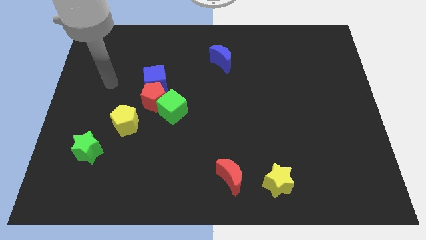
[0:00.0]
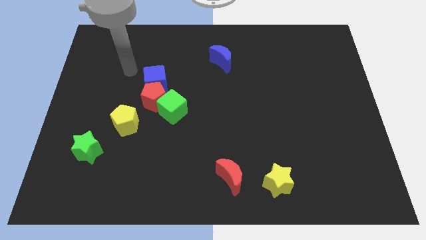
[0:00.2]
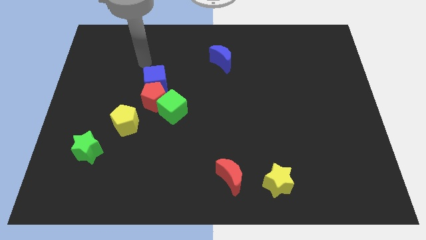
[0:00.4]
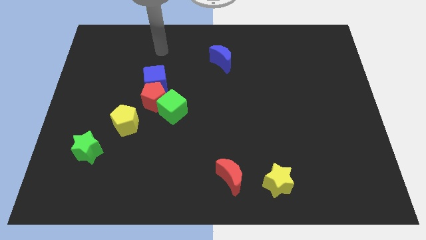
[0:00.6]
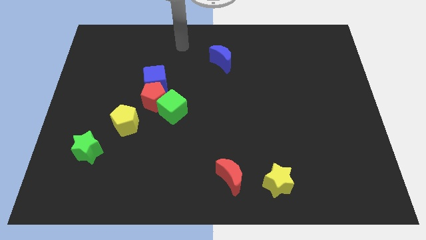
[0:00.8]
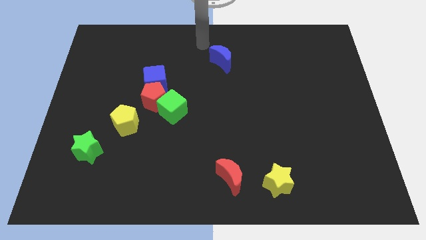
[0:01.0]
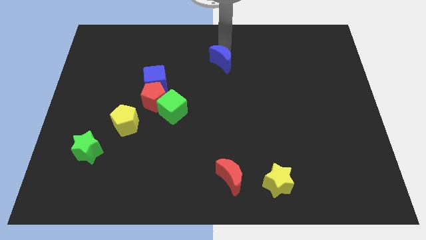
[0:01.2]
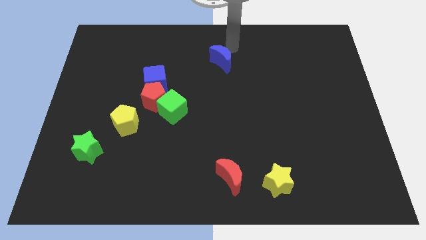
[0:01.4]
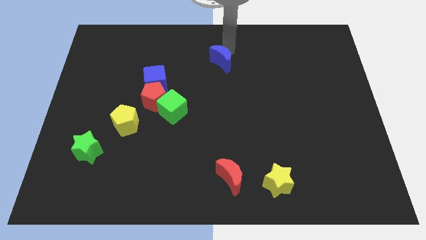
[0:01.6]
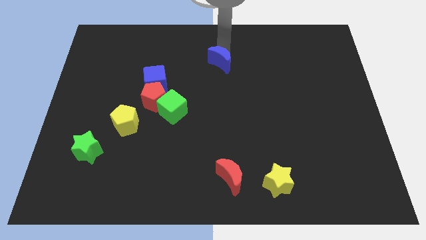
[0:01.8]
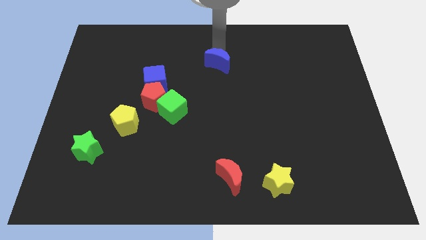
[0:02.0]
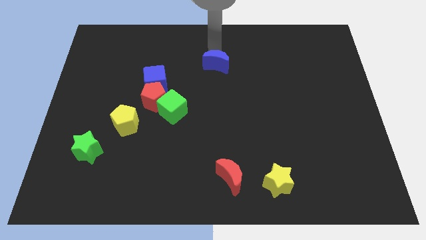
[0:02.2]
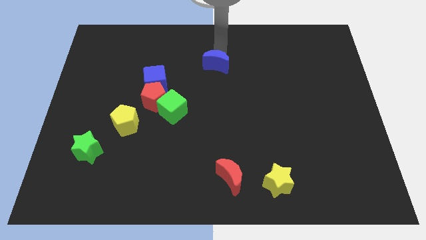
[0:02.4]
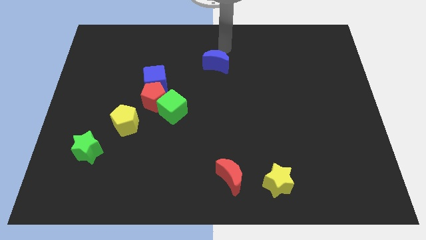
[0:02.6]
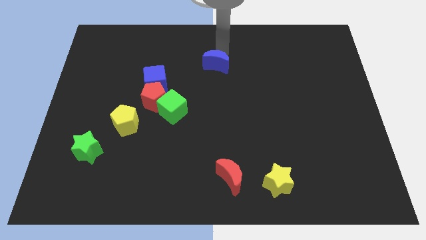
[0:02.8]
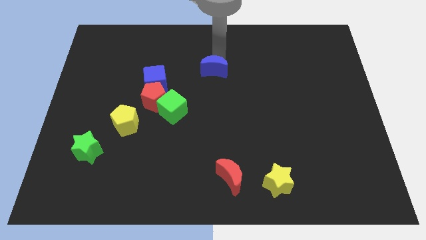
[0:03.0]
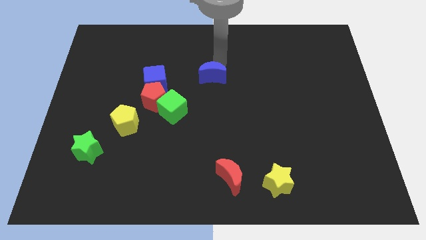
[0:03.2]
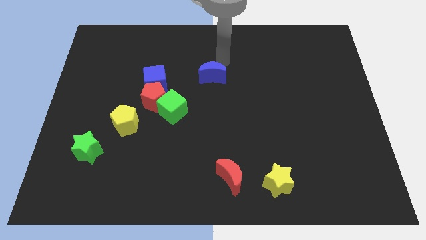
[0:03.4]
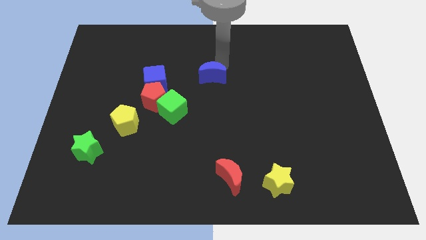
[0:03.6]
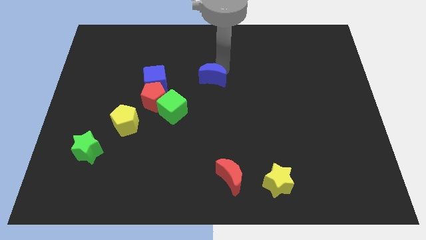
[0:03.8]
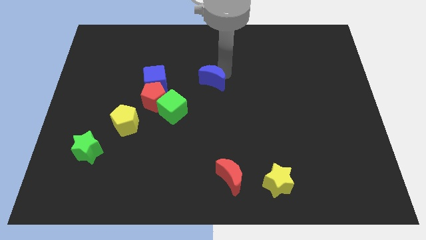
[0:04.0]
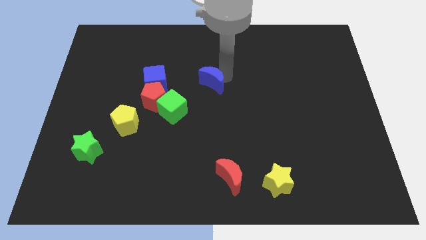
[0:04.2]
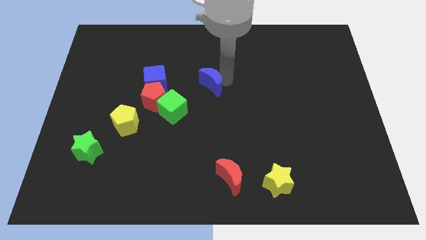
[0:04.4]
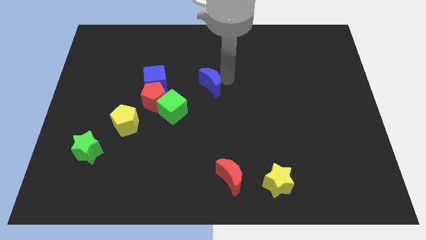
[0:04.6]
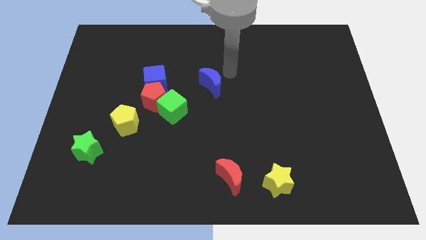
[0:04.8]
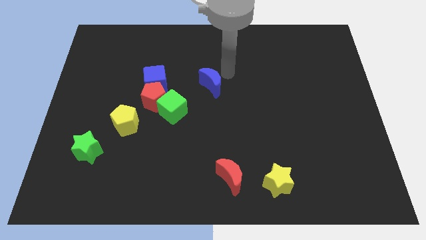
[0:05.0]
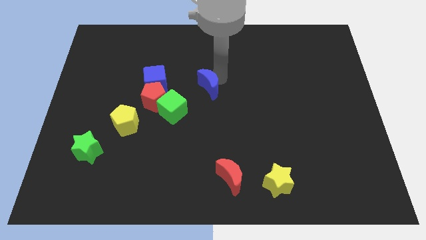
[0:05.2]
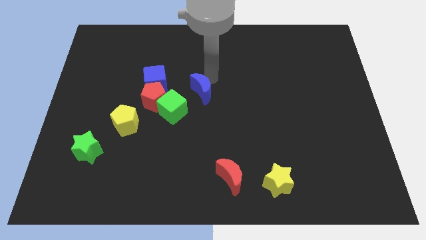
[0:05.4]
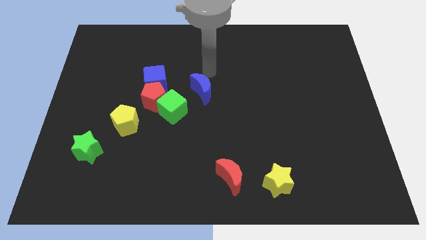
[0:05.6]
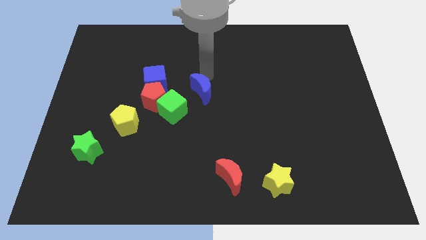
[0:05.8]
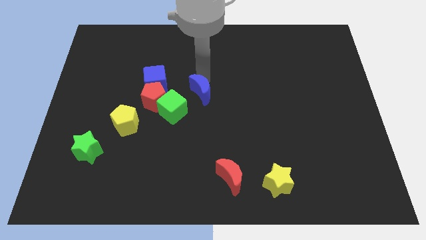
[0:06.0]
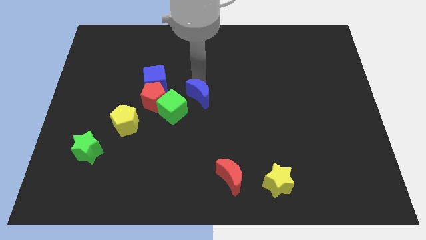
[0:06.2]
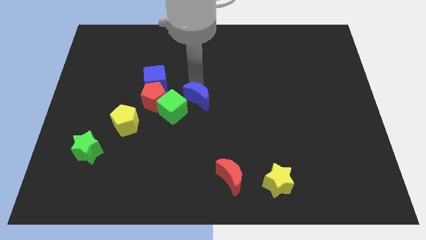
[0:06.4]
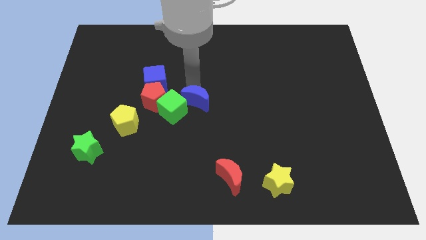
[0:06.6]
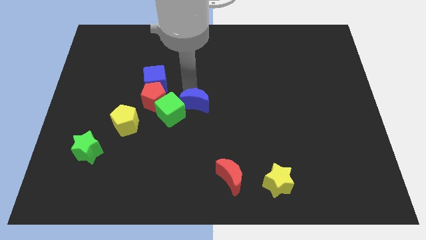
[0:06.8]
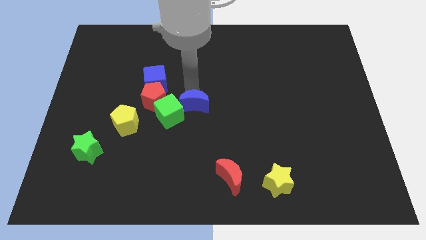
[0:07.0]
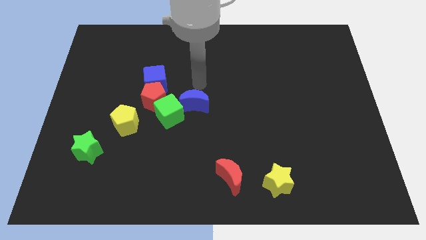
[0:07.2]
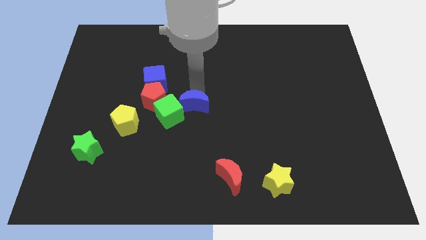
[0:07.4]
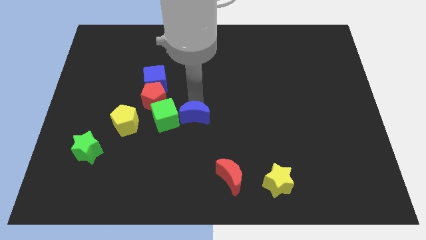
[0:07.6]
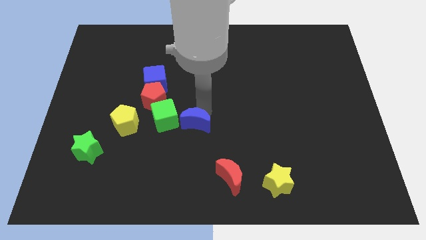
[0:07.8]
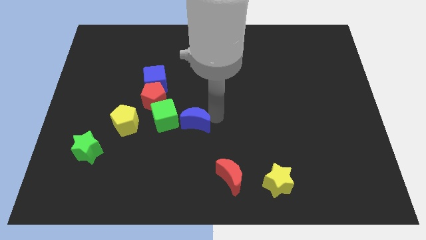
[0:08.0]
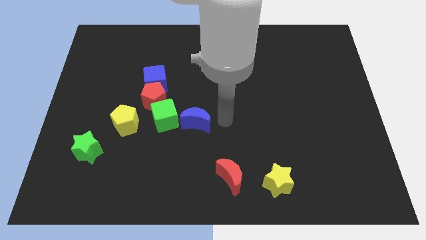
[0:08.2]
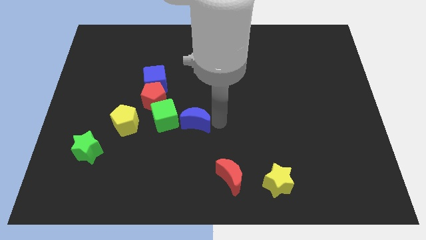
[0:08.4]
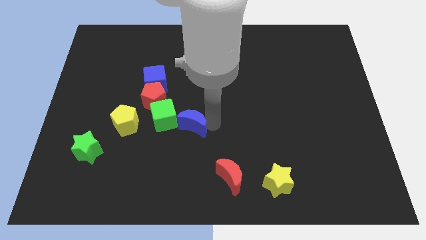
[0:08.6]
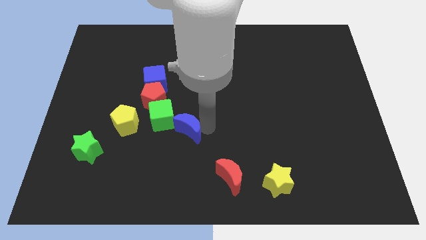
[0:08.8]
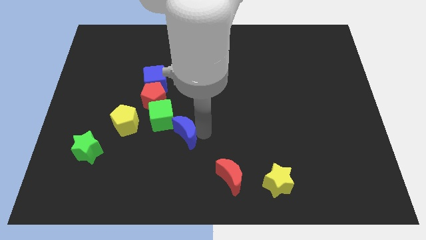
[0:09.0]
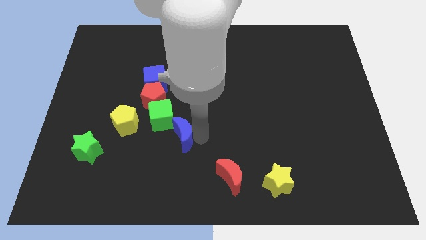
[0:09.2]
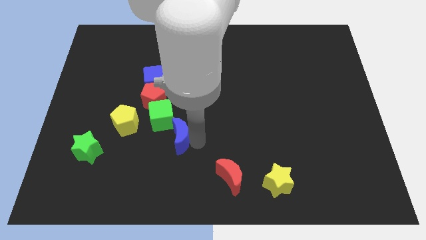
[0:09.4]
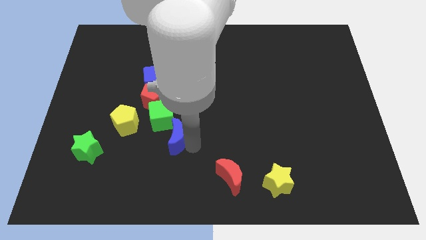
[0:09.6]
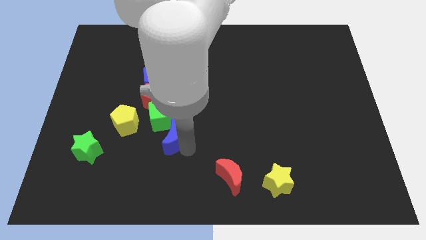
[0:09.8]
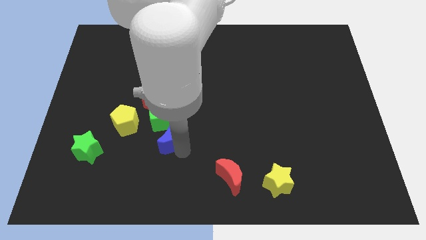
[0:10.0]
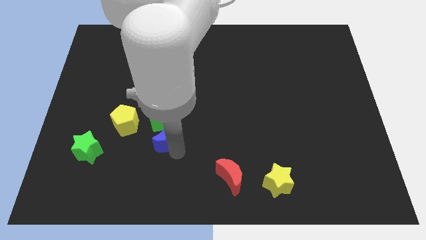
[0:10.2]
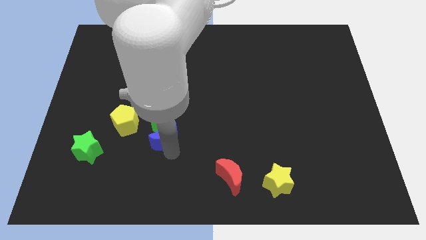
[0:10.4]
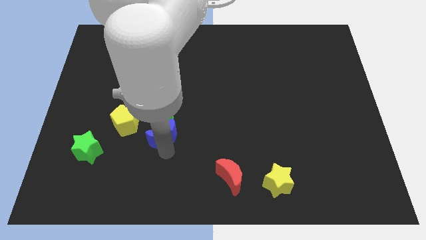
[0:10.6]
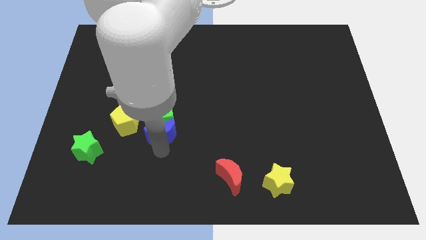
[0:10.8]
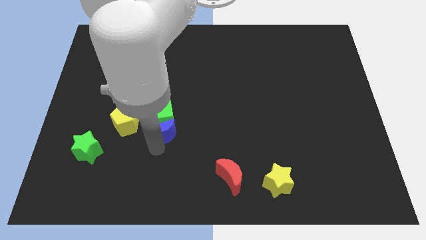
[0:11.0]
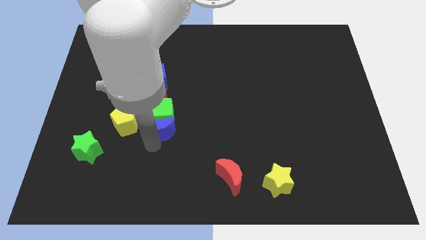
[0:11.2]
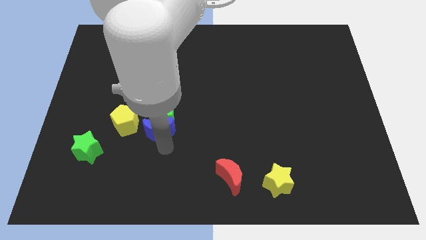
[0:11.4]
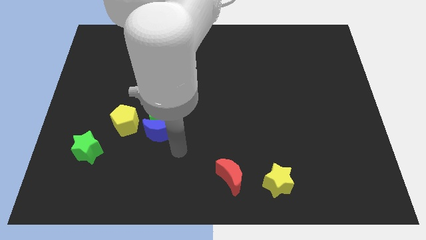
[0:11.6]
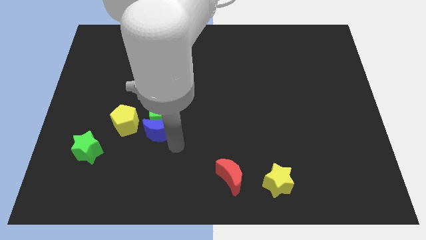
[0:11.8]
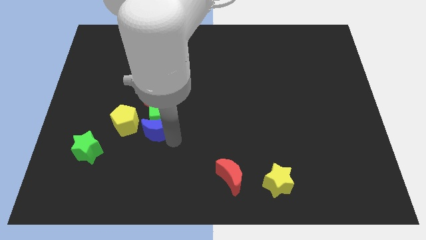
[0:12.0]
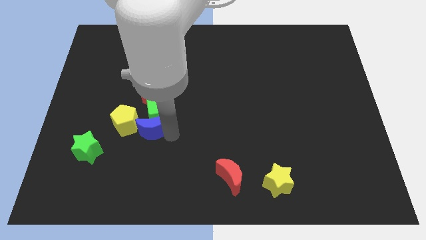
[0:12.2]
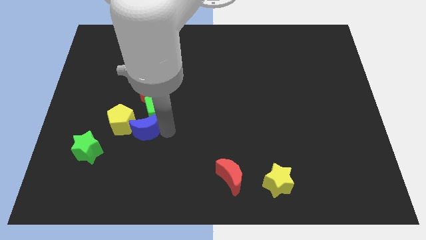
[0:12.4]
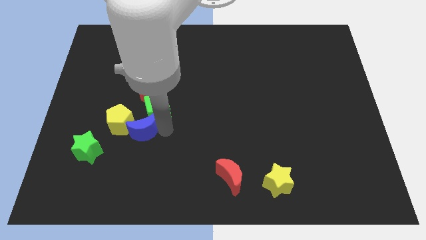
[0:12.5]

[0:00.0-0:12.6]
put the blue moon next to the yellow pentagon

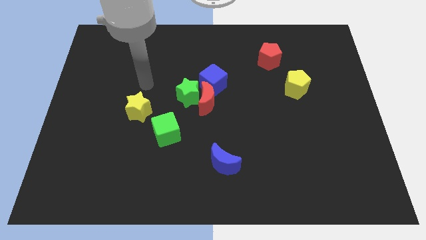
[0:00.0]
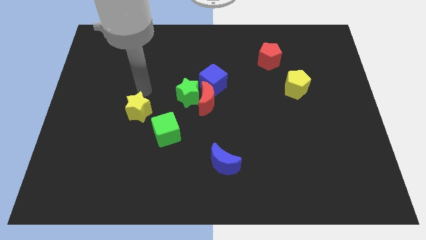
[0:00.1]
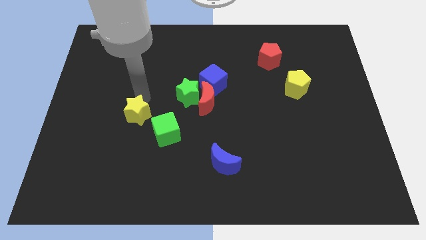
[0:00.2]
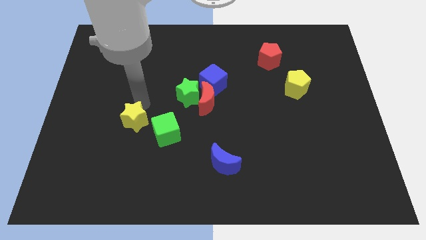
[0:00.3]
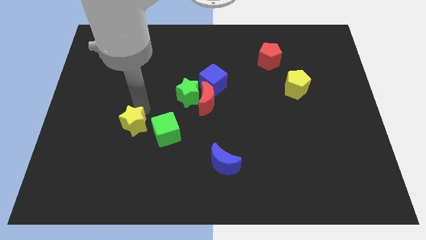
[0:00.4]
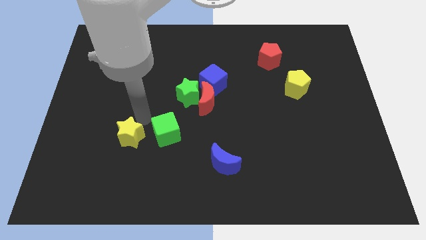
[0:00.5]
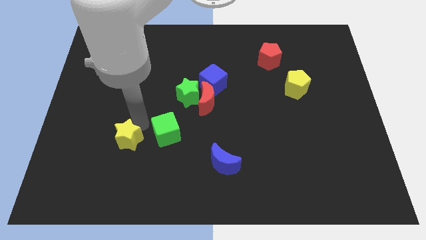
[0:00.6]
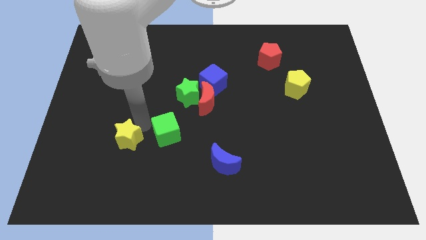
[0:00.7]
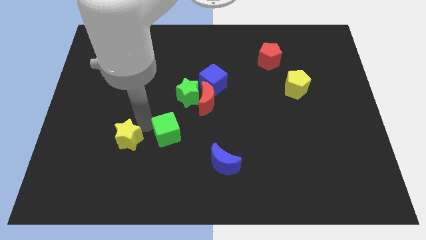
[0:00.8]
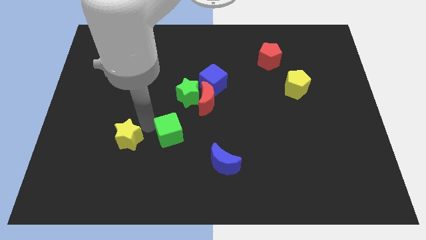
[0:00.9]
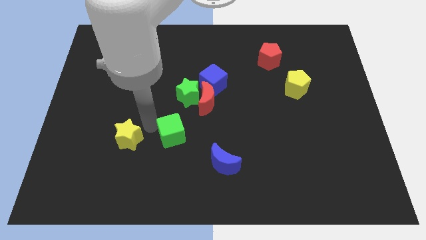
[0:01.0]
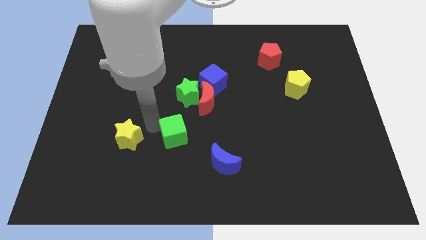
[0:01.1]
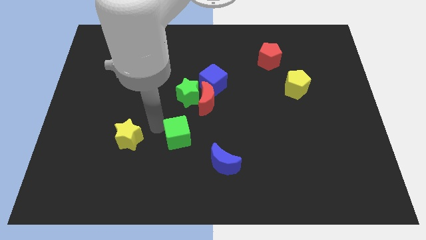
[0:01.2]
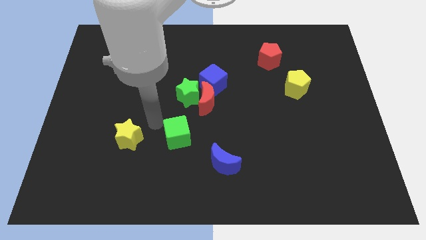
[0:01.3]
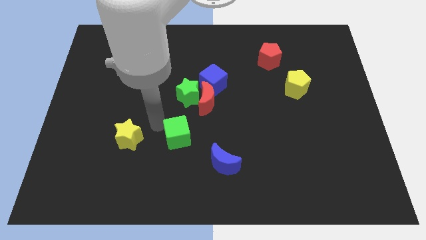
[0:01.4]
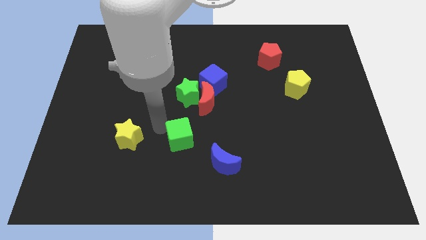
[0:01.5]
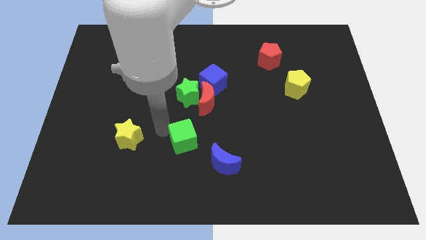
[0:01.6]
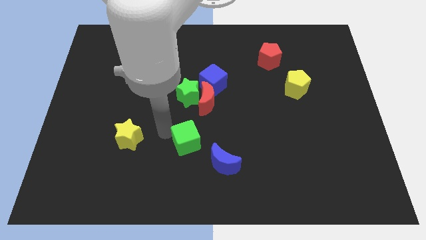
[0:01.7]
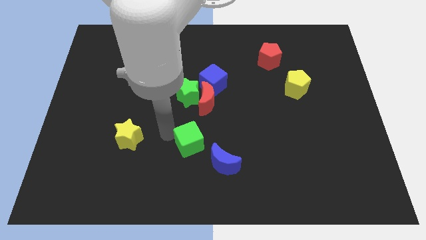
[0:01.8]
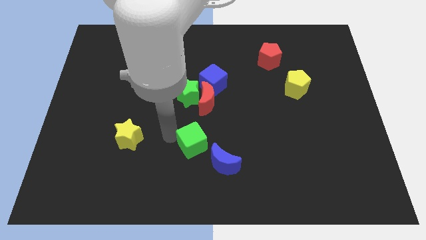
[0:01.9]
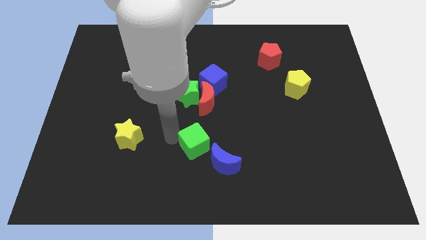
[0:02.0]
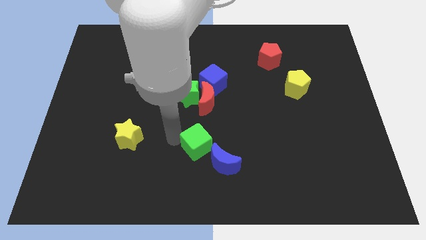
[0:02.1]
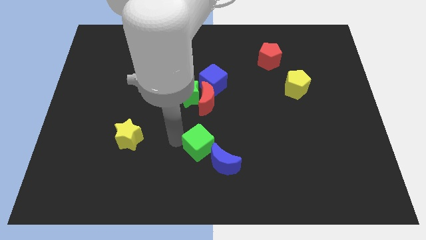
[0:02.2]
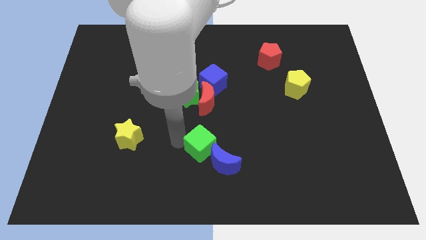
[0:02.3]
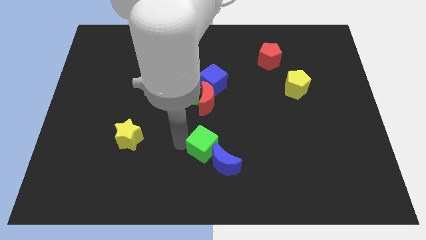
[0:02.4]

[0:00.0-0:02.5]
push the green cube next to the blue moon
